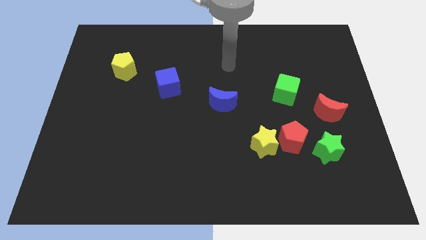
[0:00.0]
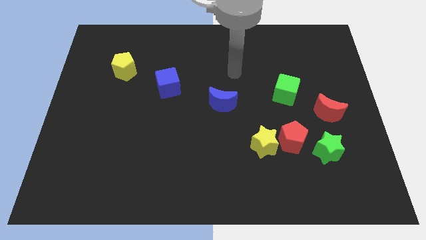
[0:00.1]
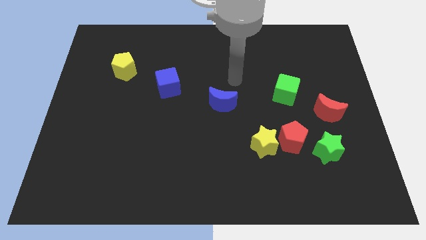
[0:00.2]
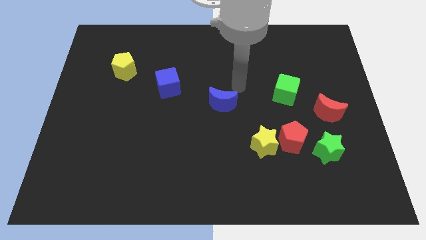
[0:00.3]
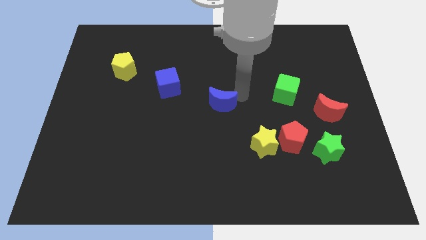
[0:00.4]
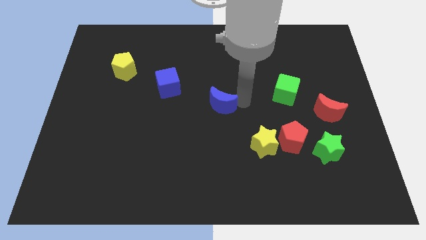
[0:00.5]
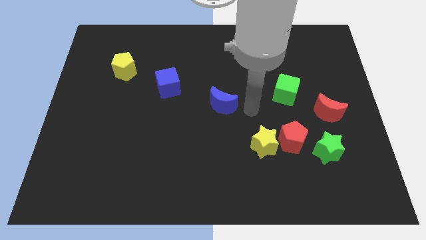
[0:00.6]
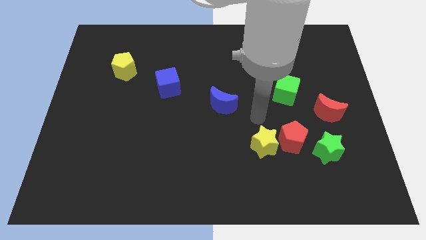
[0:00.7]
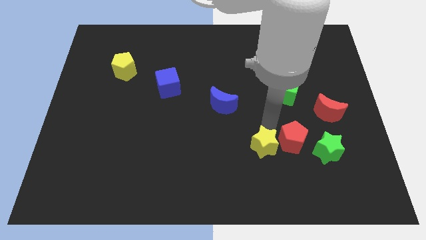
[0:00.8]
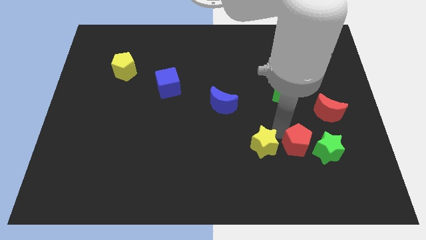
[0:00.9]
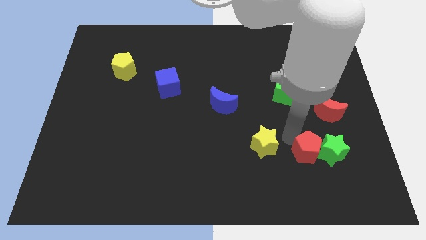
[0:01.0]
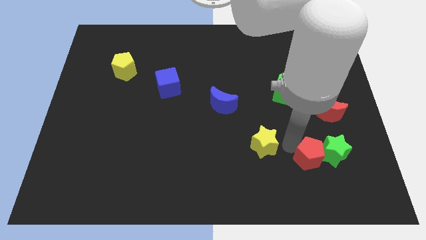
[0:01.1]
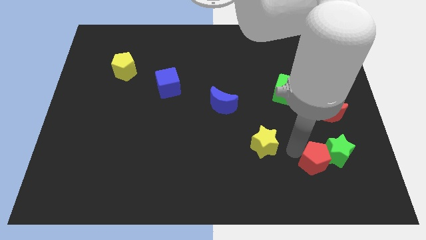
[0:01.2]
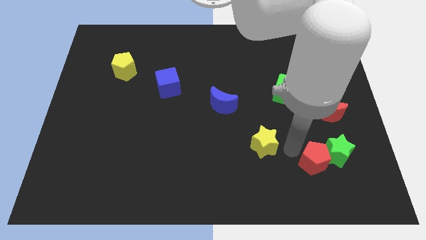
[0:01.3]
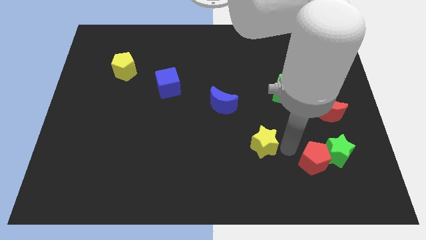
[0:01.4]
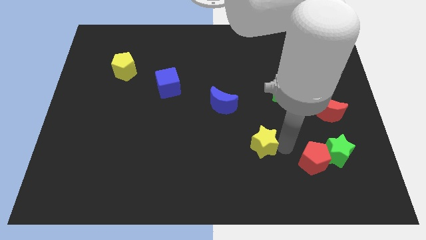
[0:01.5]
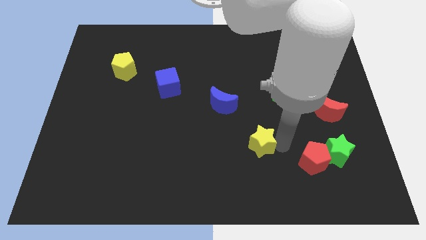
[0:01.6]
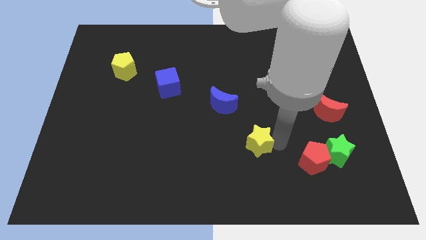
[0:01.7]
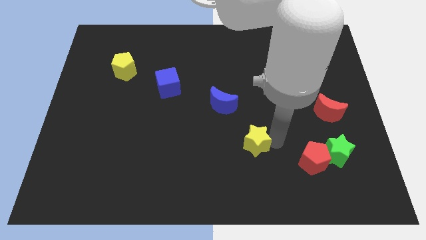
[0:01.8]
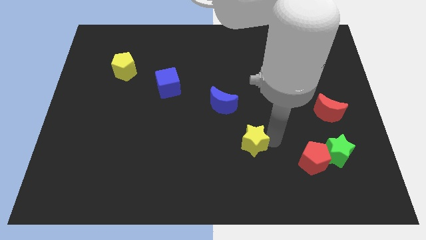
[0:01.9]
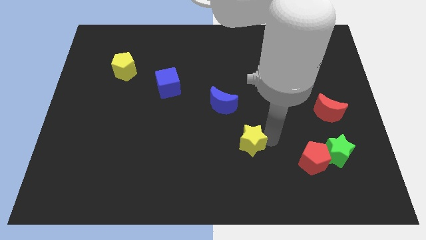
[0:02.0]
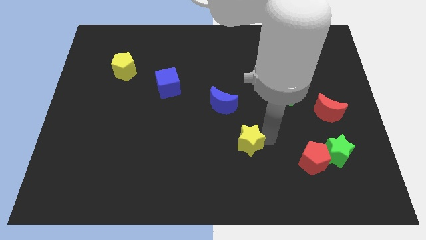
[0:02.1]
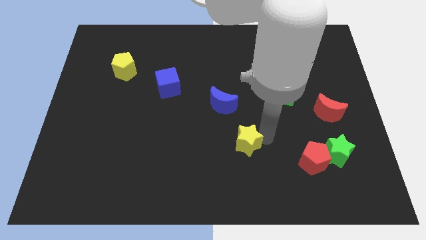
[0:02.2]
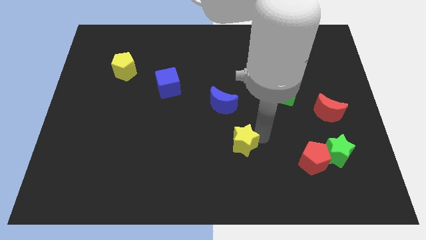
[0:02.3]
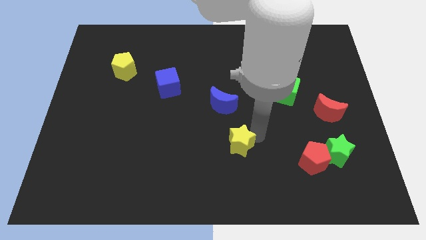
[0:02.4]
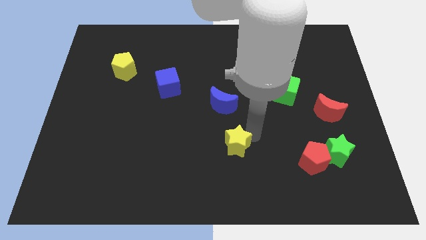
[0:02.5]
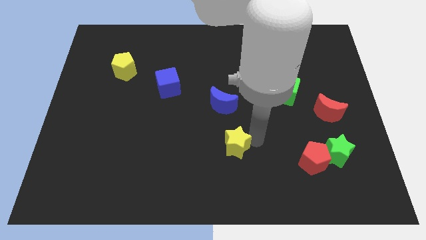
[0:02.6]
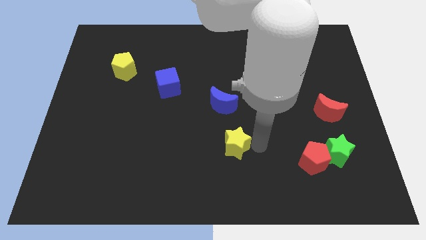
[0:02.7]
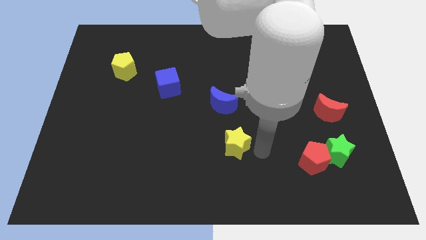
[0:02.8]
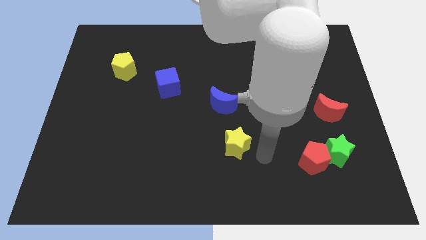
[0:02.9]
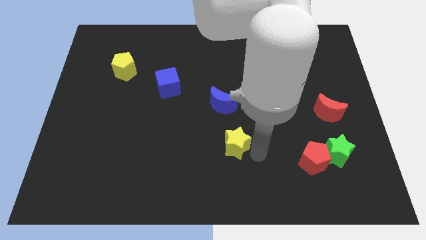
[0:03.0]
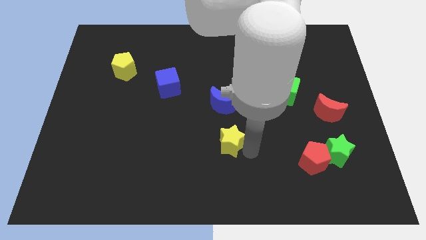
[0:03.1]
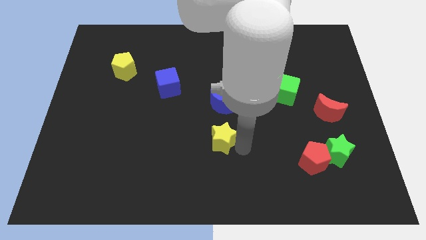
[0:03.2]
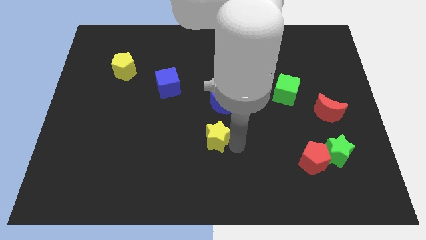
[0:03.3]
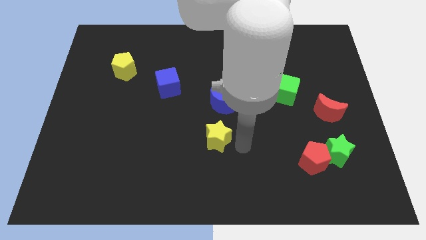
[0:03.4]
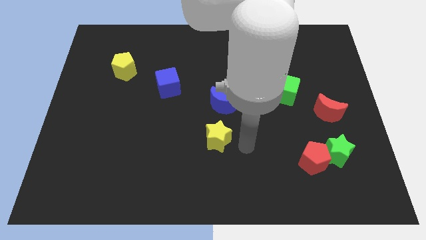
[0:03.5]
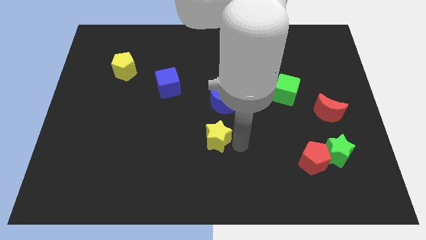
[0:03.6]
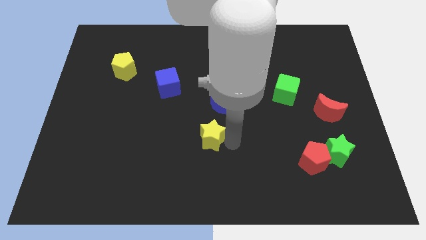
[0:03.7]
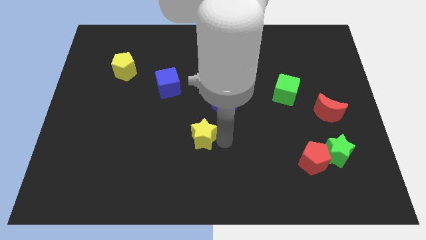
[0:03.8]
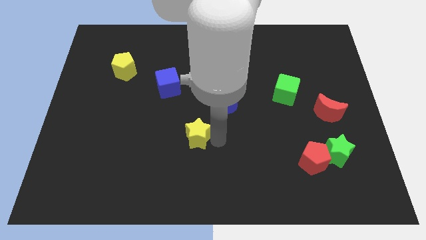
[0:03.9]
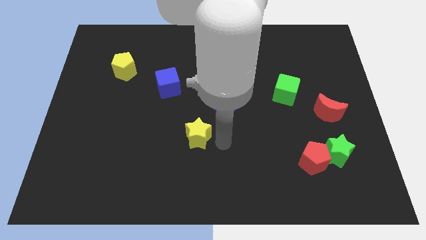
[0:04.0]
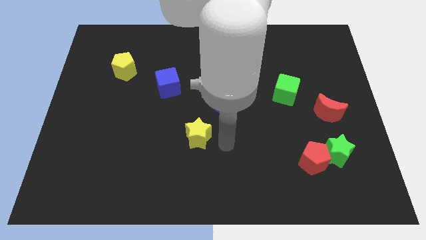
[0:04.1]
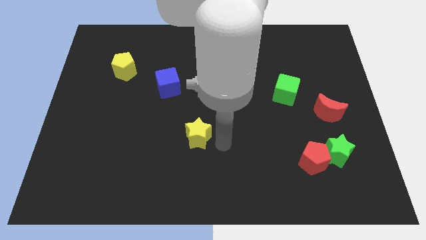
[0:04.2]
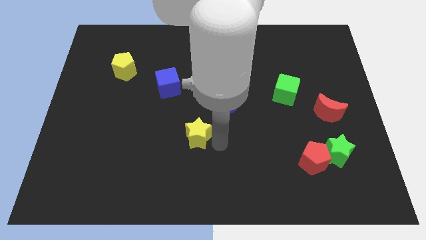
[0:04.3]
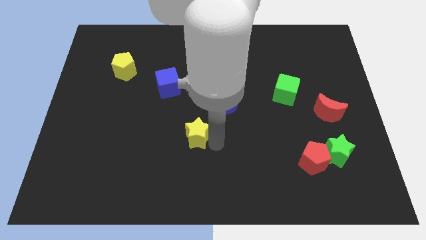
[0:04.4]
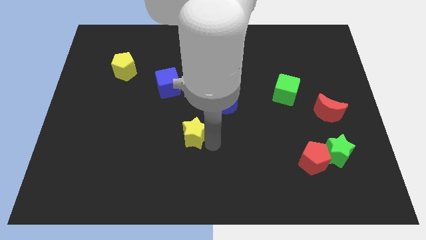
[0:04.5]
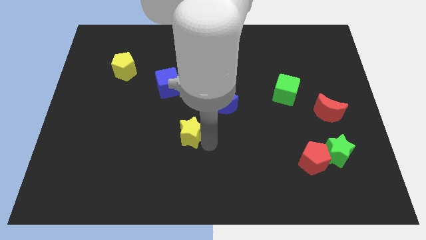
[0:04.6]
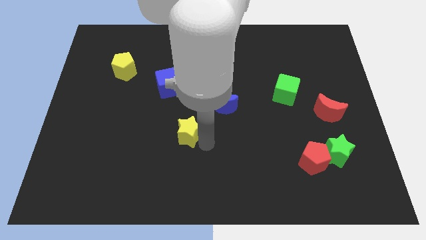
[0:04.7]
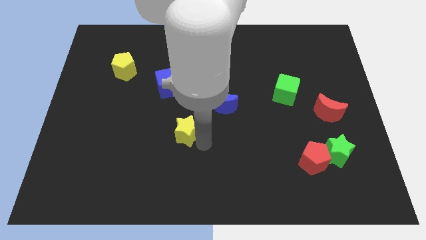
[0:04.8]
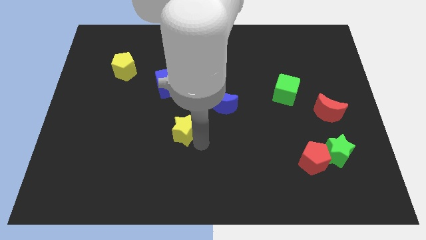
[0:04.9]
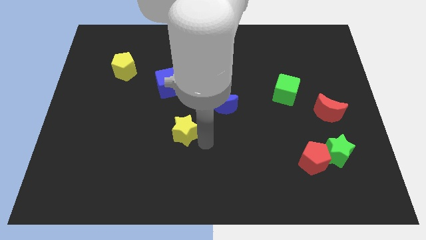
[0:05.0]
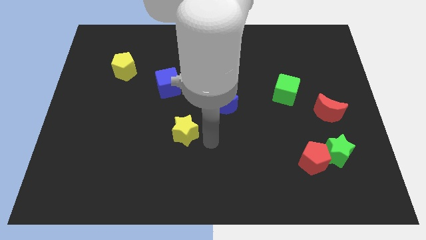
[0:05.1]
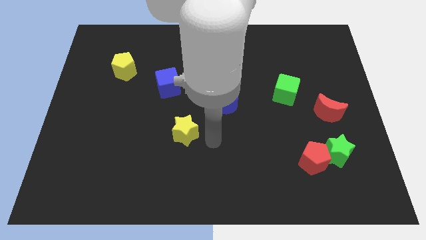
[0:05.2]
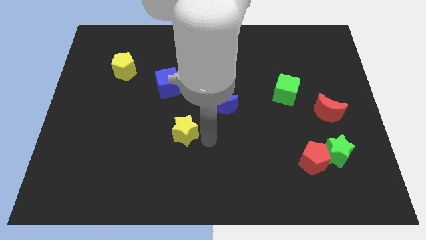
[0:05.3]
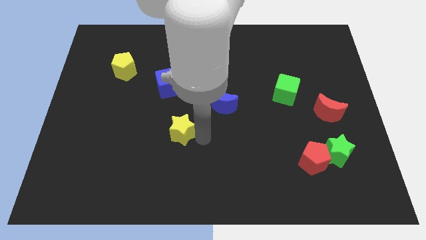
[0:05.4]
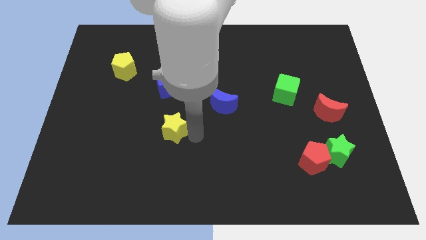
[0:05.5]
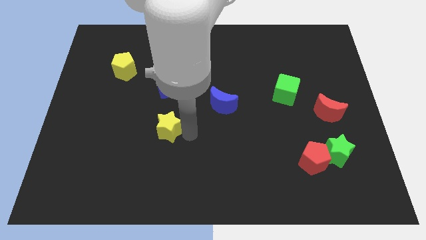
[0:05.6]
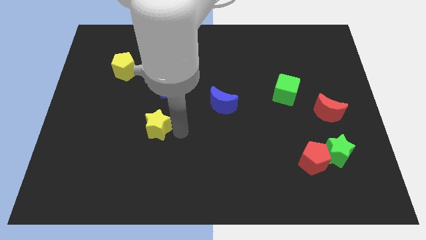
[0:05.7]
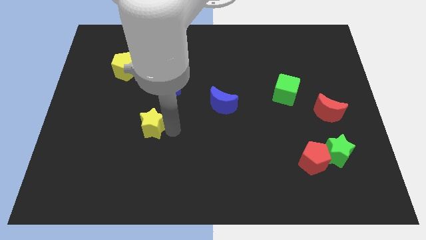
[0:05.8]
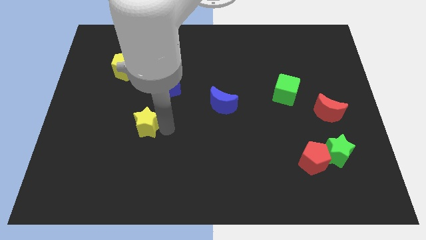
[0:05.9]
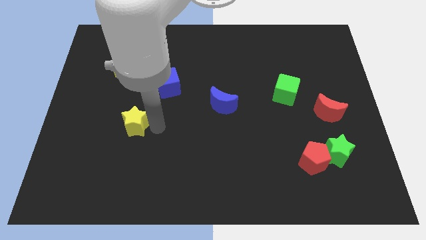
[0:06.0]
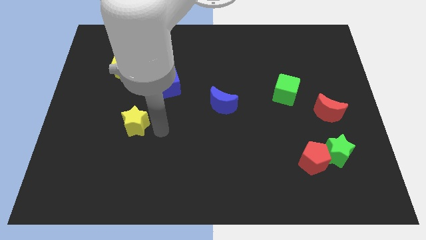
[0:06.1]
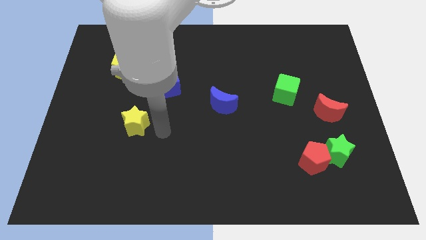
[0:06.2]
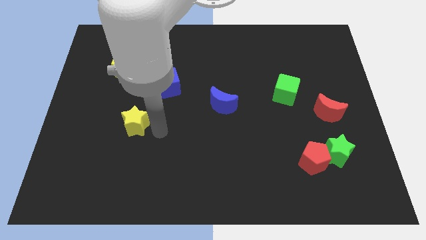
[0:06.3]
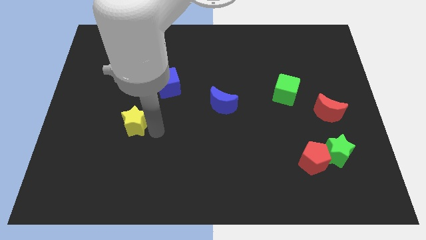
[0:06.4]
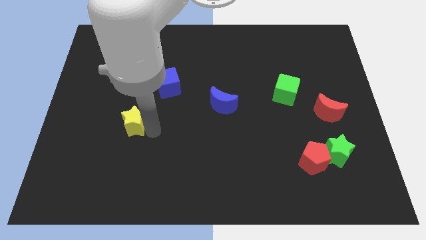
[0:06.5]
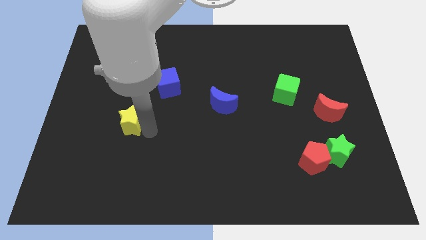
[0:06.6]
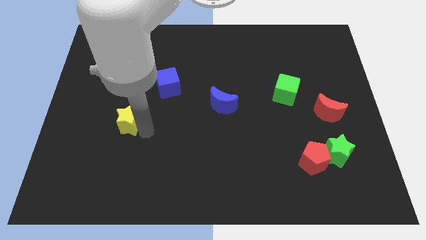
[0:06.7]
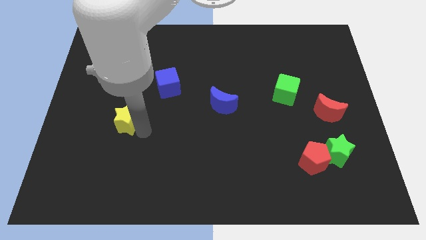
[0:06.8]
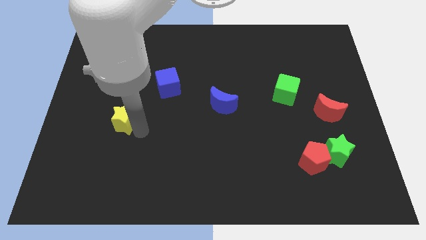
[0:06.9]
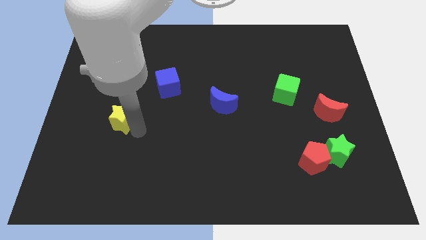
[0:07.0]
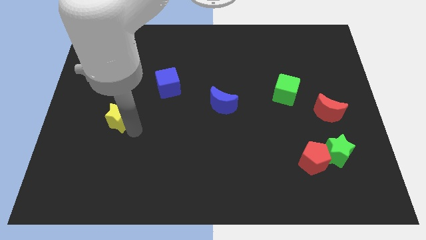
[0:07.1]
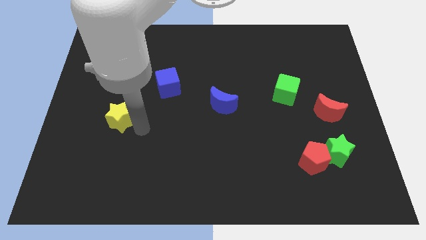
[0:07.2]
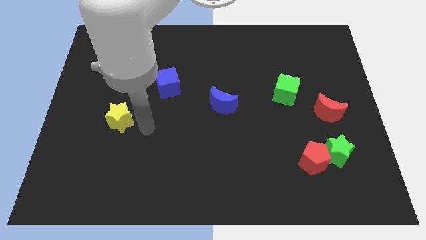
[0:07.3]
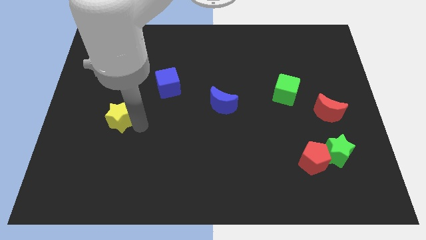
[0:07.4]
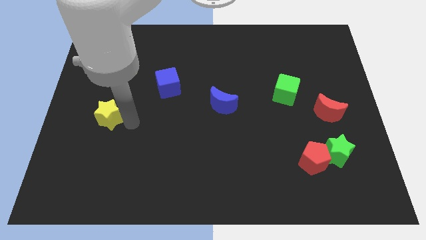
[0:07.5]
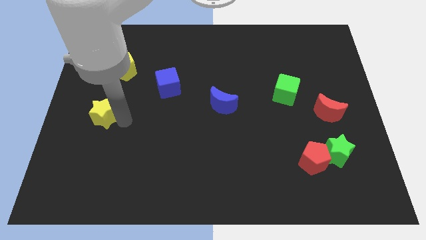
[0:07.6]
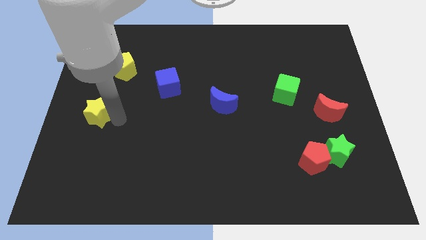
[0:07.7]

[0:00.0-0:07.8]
slide the yellow star to the left side

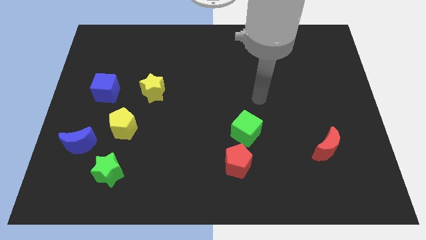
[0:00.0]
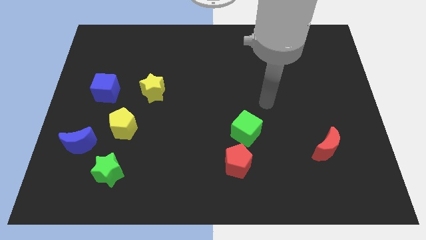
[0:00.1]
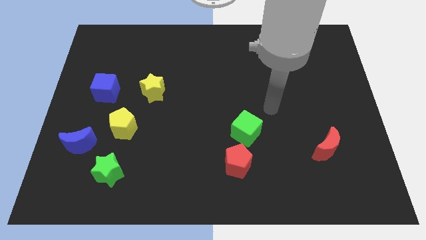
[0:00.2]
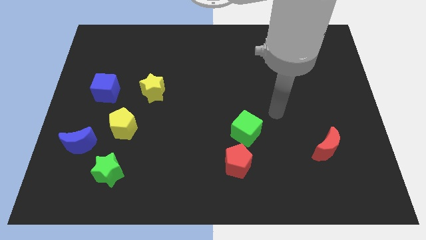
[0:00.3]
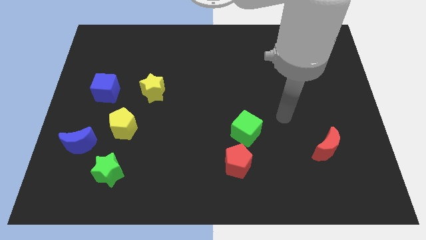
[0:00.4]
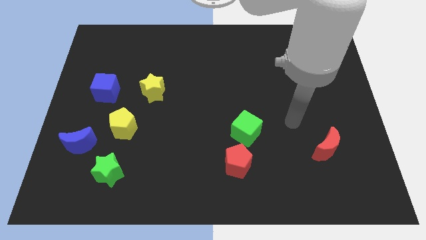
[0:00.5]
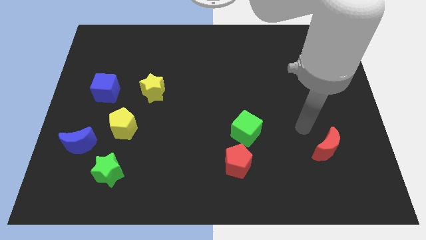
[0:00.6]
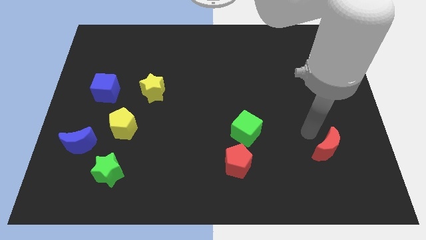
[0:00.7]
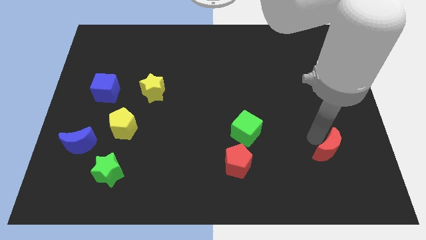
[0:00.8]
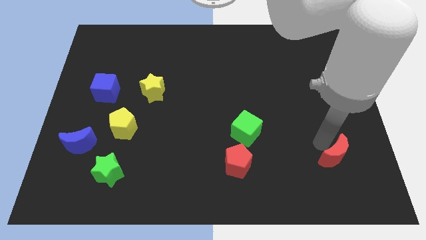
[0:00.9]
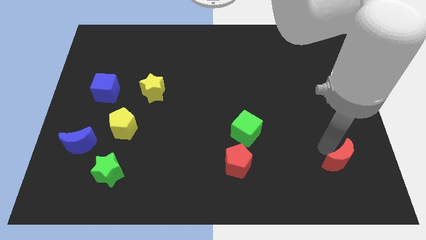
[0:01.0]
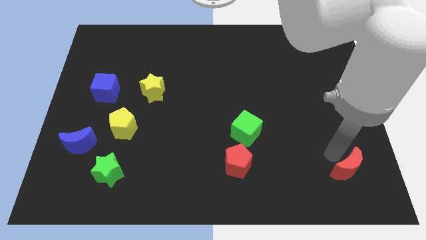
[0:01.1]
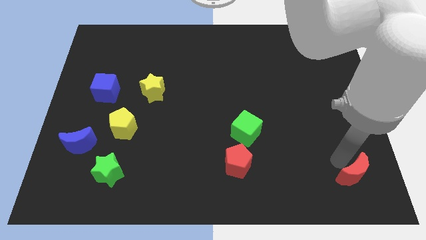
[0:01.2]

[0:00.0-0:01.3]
slide the red moon to the bottom right of the board
